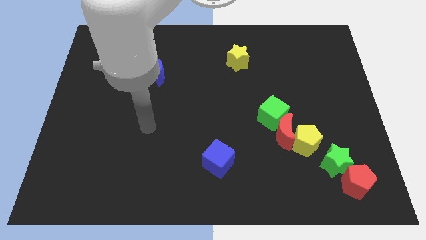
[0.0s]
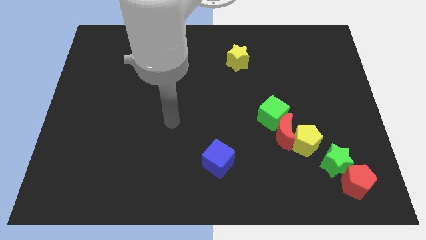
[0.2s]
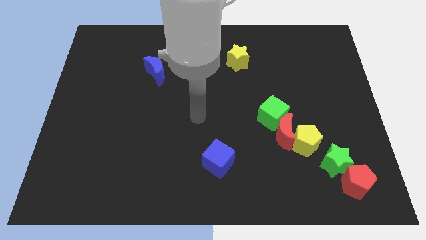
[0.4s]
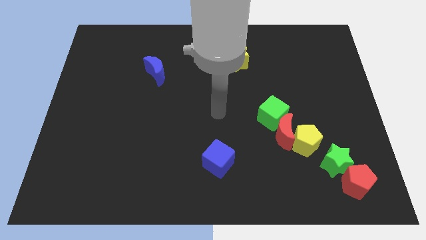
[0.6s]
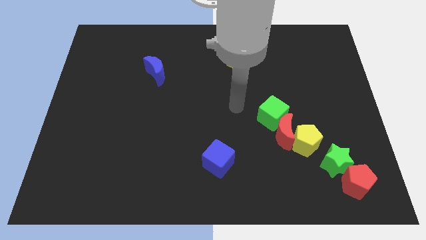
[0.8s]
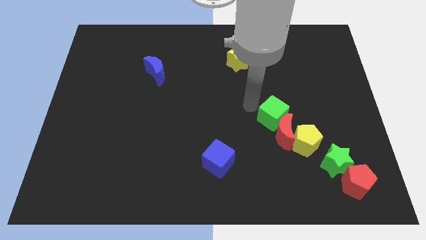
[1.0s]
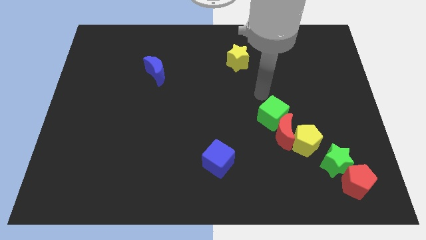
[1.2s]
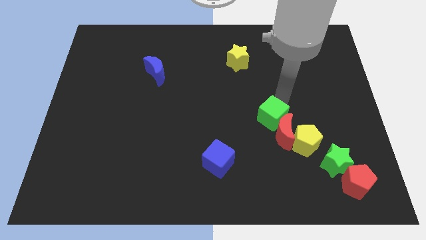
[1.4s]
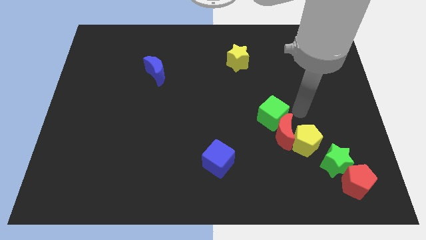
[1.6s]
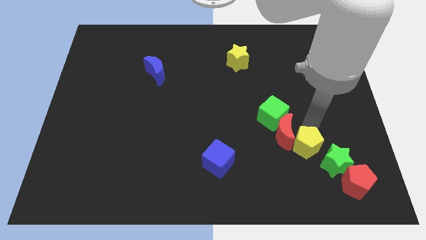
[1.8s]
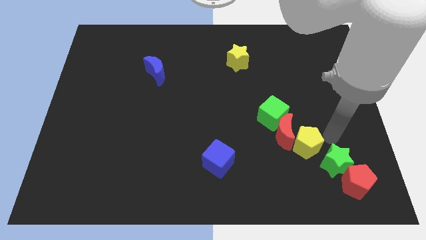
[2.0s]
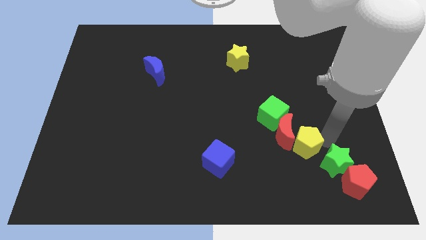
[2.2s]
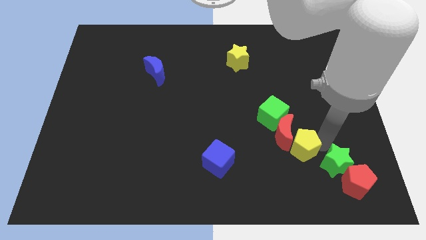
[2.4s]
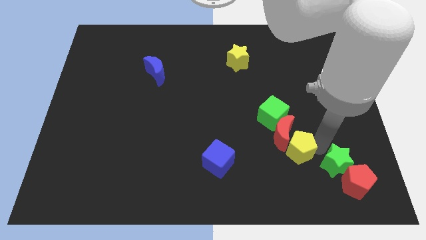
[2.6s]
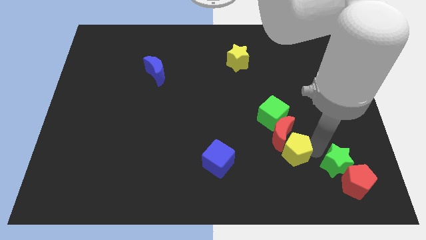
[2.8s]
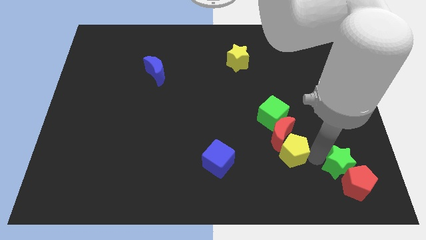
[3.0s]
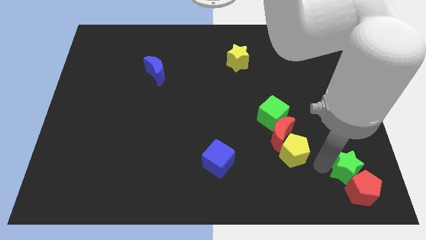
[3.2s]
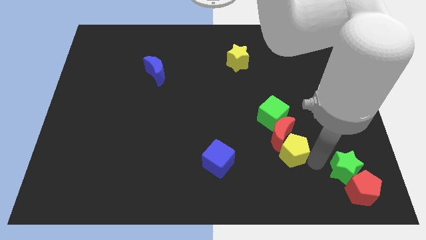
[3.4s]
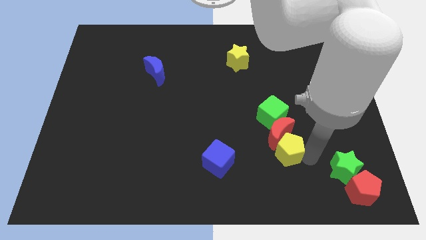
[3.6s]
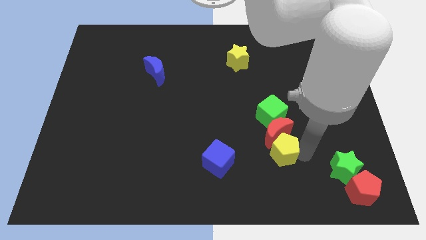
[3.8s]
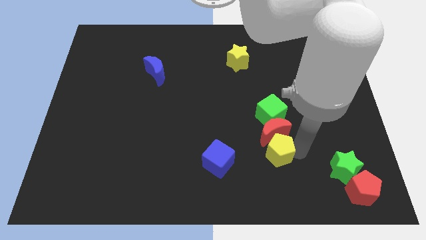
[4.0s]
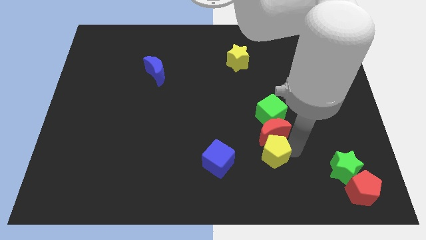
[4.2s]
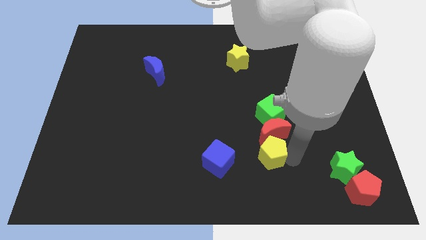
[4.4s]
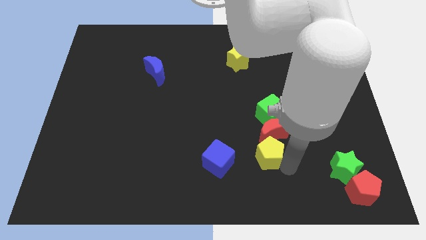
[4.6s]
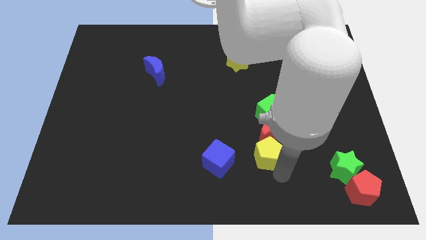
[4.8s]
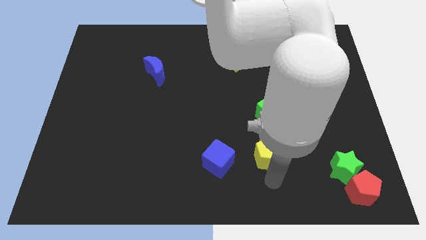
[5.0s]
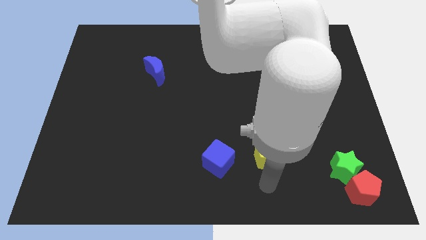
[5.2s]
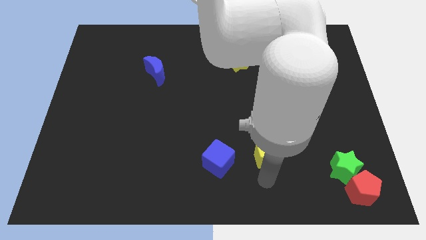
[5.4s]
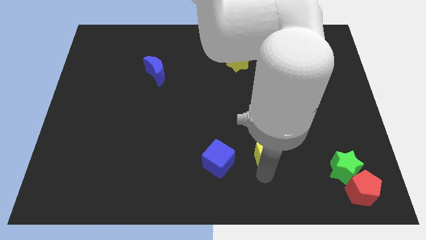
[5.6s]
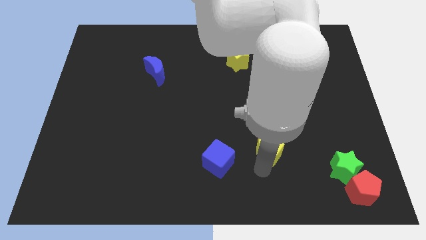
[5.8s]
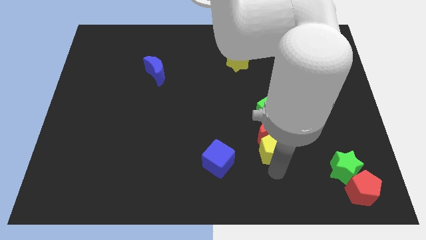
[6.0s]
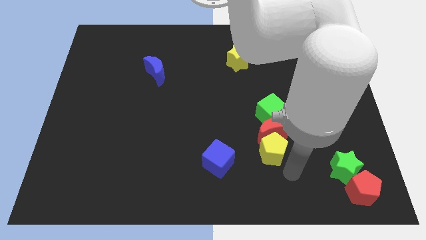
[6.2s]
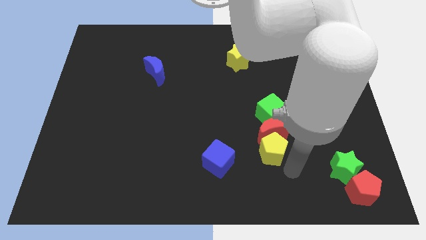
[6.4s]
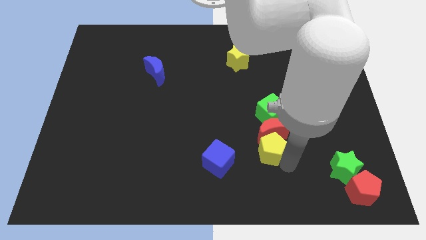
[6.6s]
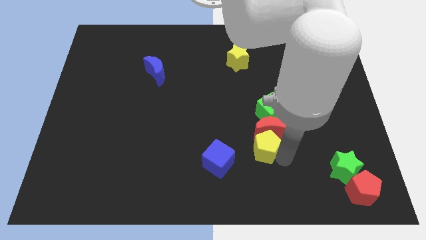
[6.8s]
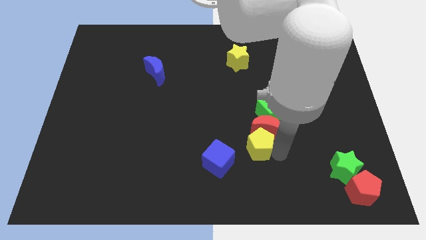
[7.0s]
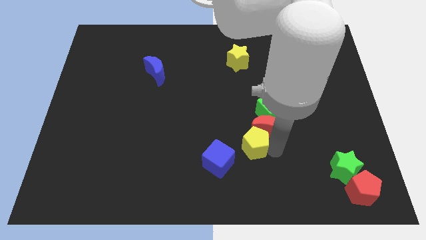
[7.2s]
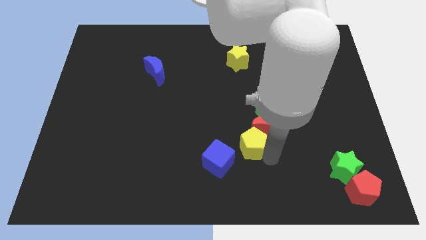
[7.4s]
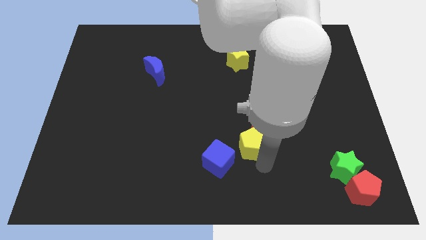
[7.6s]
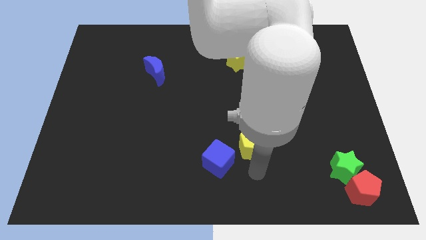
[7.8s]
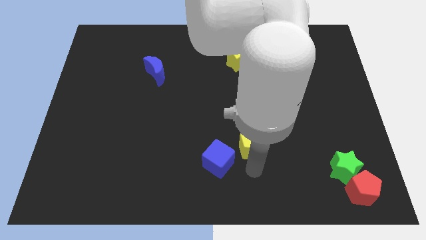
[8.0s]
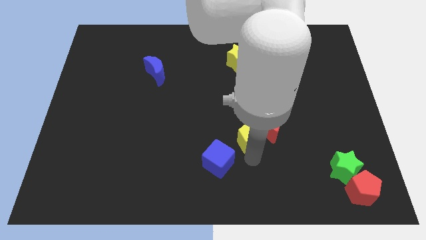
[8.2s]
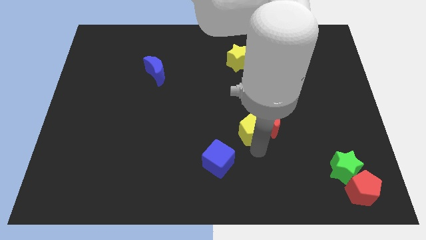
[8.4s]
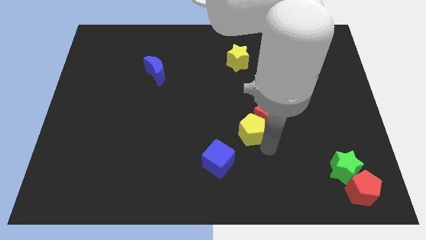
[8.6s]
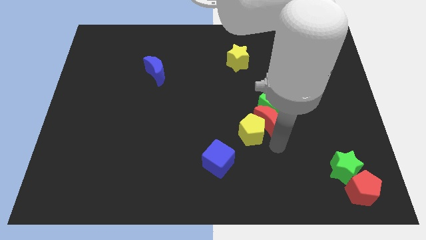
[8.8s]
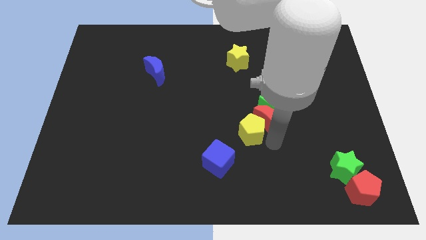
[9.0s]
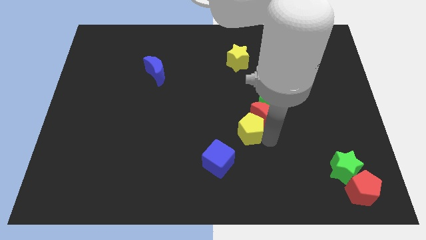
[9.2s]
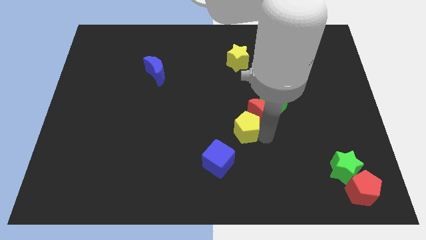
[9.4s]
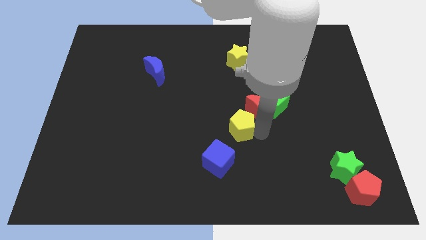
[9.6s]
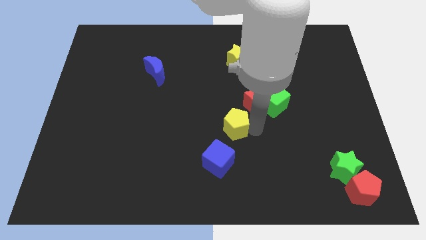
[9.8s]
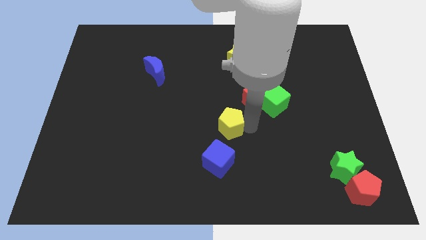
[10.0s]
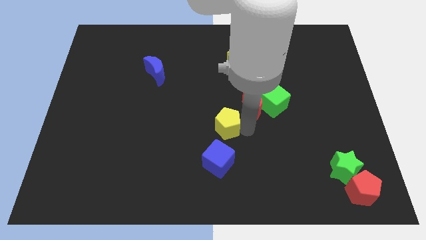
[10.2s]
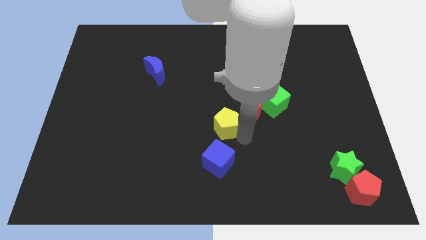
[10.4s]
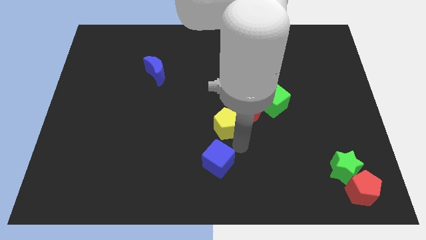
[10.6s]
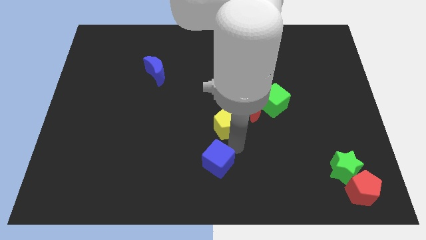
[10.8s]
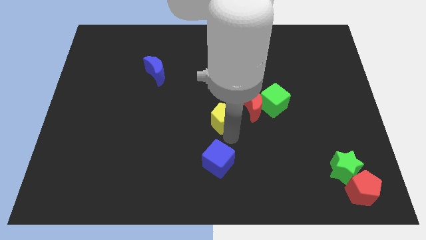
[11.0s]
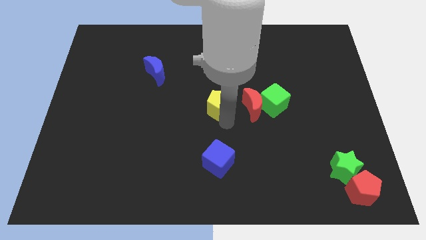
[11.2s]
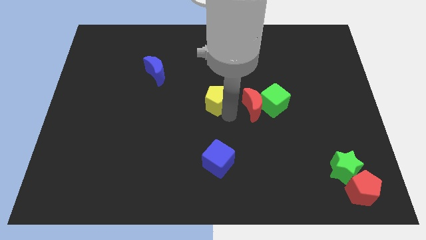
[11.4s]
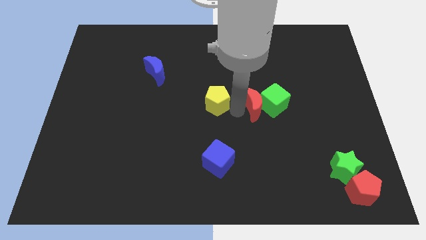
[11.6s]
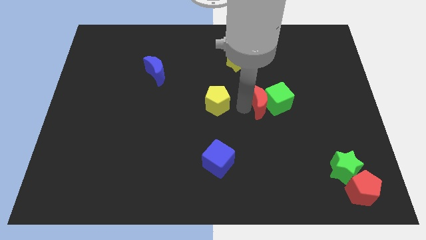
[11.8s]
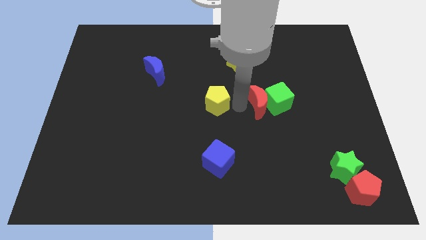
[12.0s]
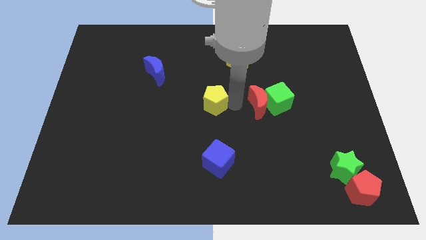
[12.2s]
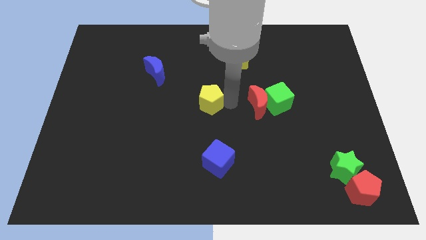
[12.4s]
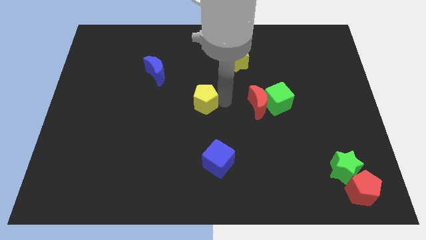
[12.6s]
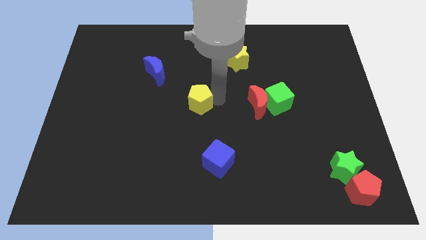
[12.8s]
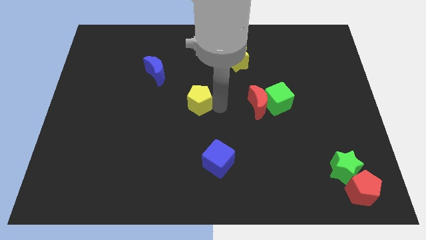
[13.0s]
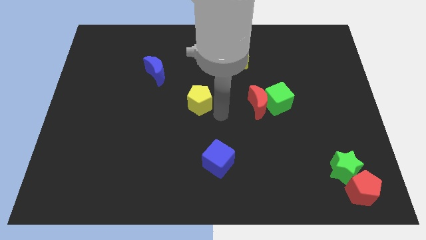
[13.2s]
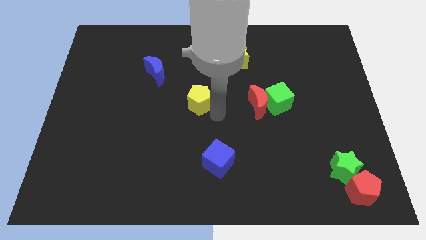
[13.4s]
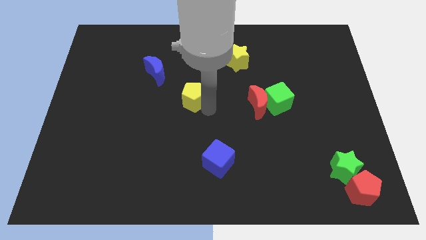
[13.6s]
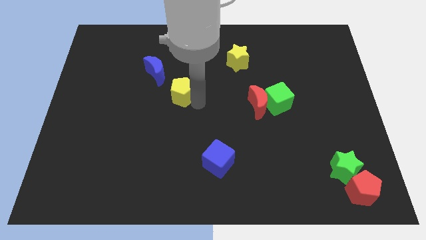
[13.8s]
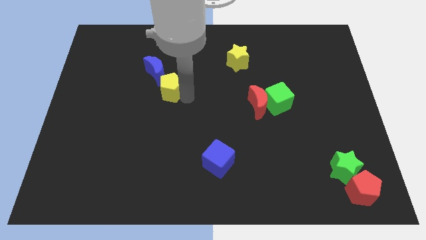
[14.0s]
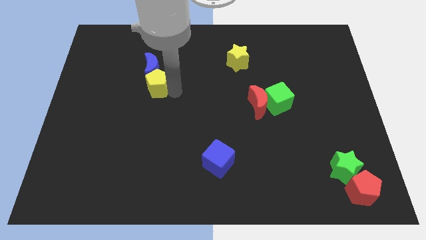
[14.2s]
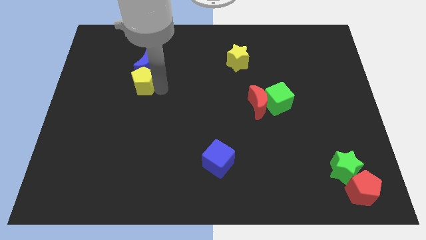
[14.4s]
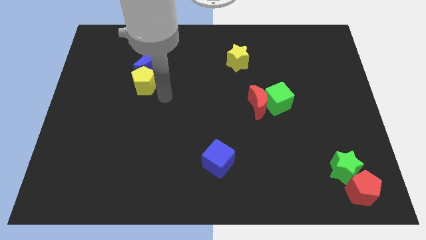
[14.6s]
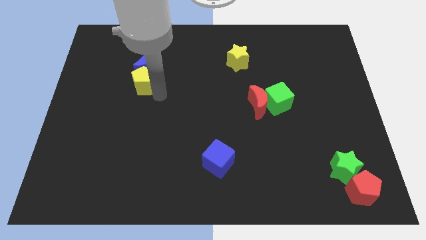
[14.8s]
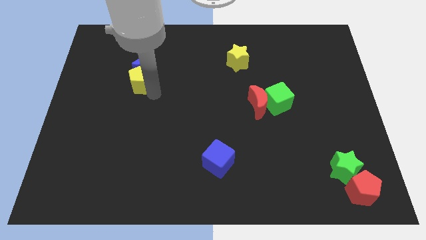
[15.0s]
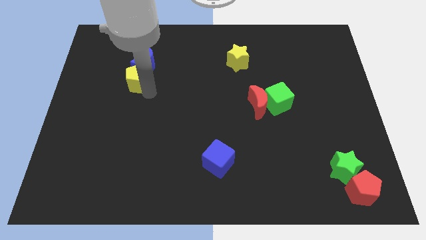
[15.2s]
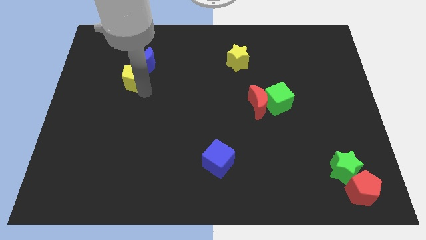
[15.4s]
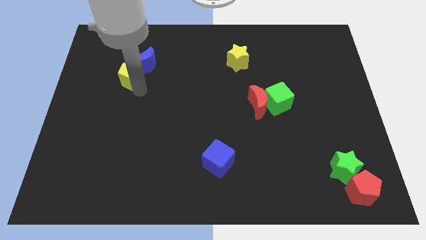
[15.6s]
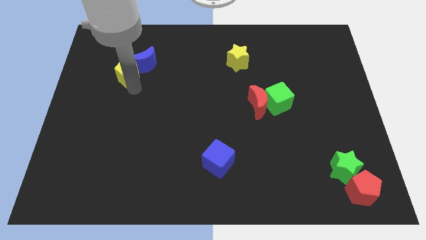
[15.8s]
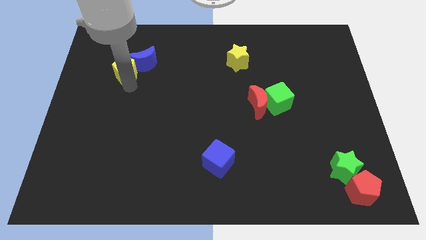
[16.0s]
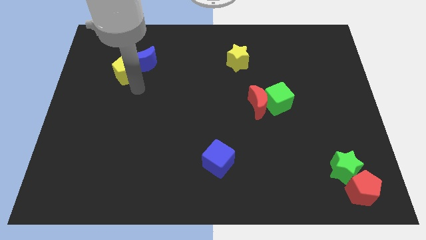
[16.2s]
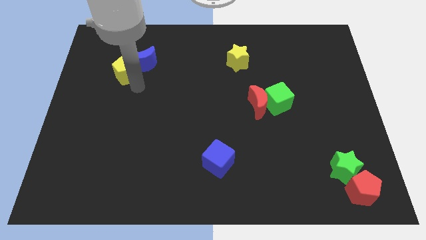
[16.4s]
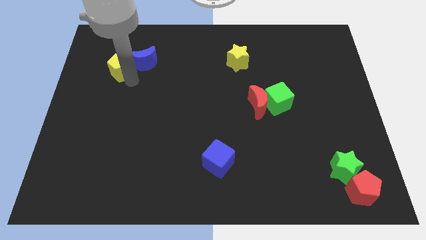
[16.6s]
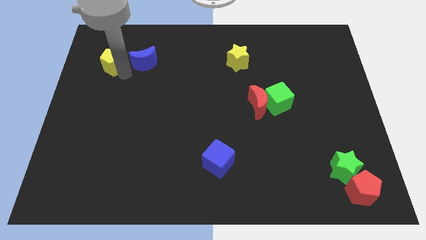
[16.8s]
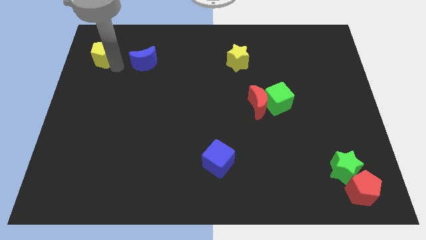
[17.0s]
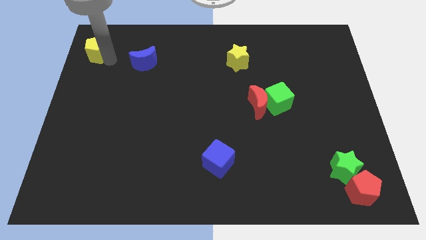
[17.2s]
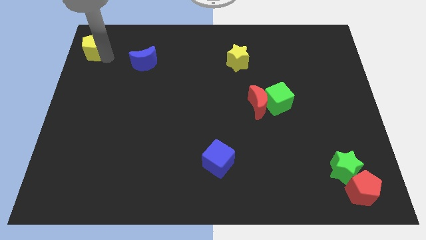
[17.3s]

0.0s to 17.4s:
move the yellow pentagon to the top left of the board
